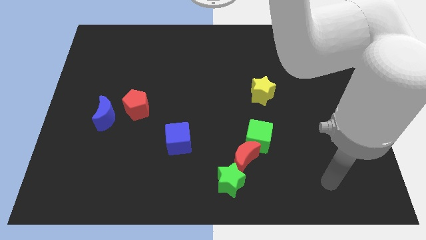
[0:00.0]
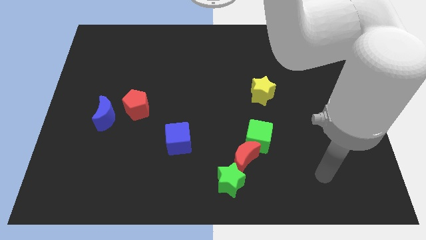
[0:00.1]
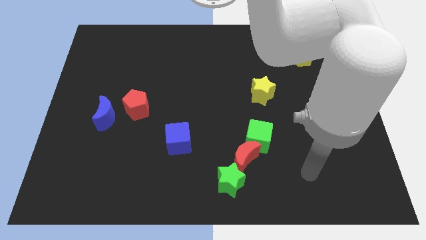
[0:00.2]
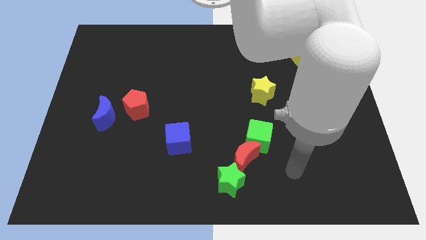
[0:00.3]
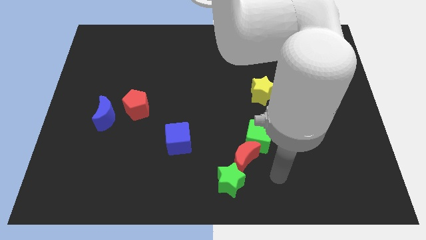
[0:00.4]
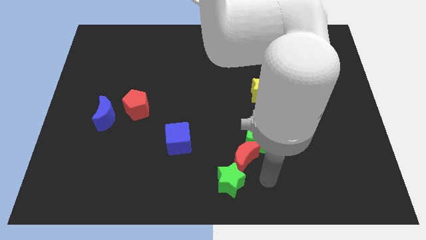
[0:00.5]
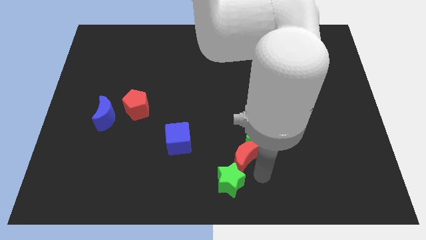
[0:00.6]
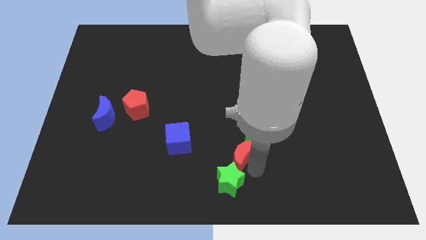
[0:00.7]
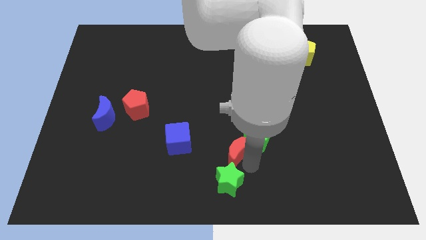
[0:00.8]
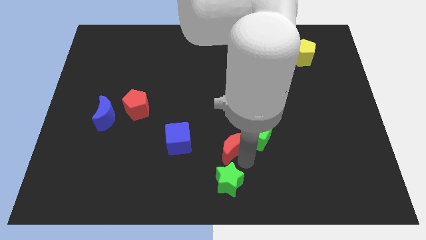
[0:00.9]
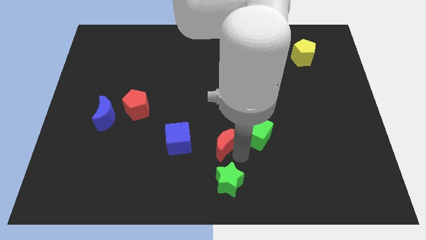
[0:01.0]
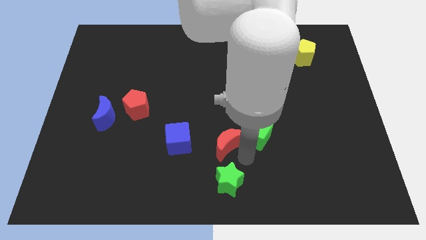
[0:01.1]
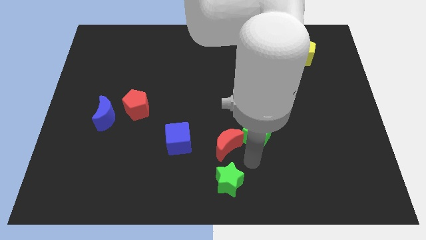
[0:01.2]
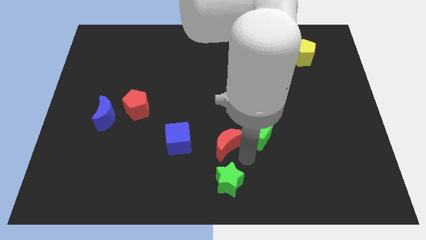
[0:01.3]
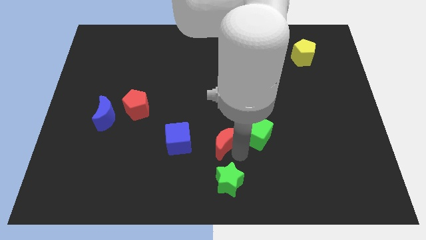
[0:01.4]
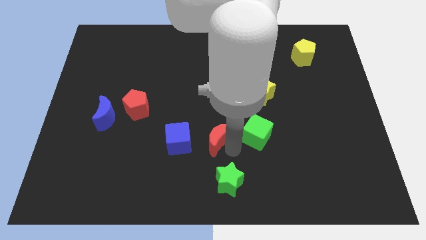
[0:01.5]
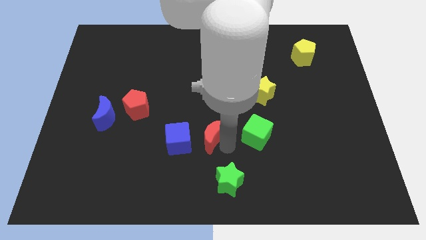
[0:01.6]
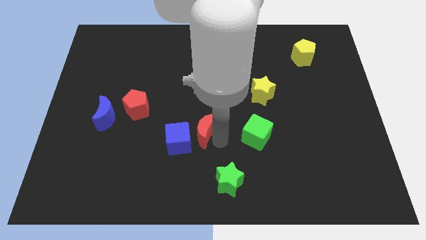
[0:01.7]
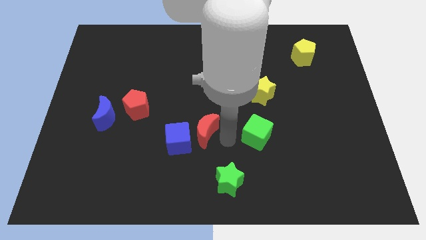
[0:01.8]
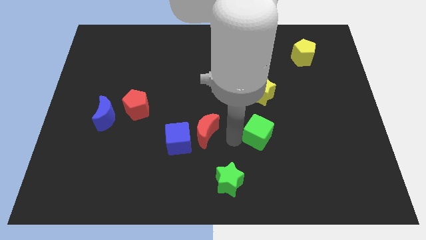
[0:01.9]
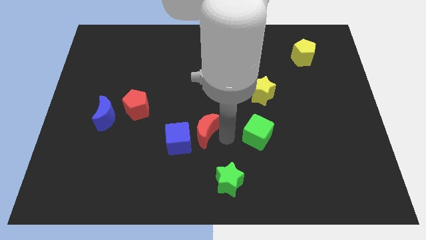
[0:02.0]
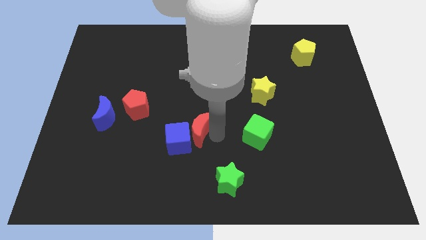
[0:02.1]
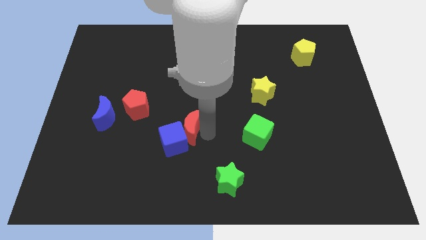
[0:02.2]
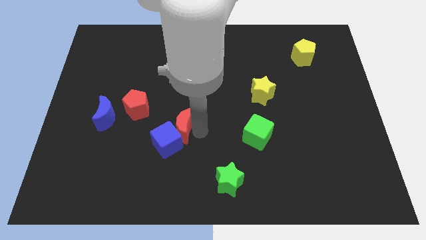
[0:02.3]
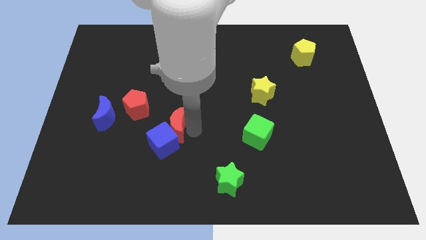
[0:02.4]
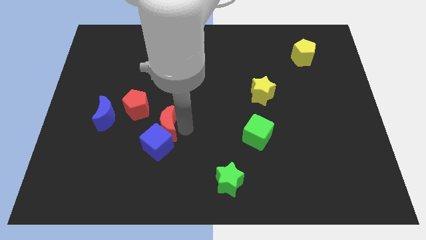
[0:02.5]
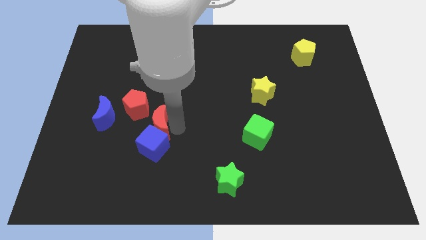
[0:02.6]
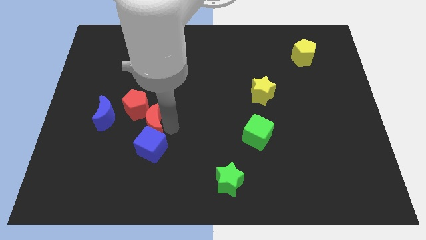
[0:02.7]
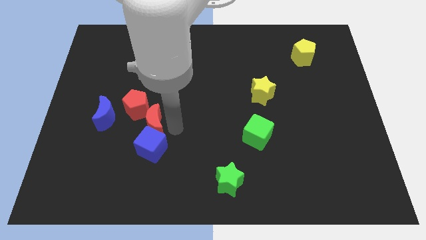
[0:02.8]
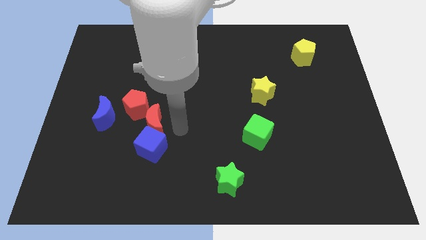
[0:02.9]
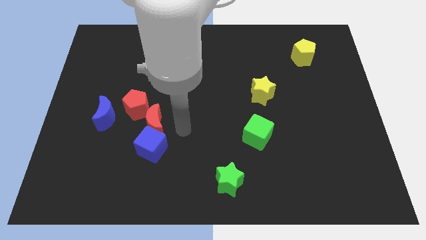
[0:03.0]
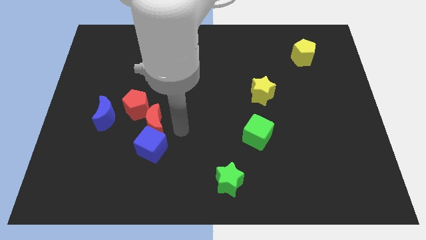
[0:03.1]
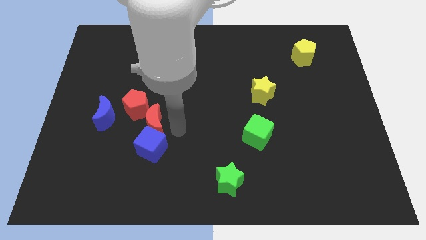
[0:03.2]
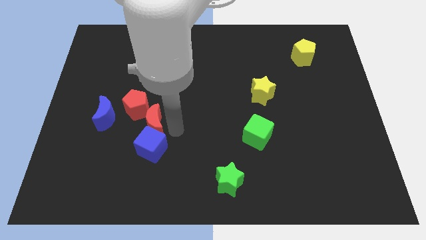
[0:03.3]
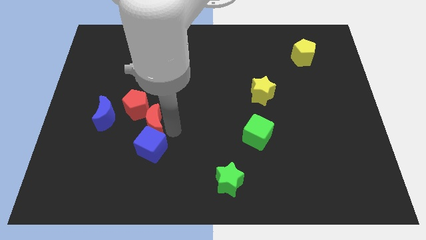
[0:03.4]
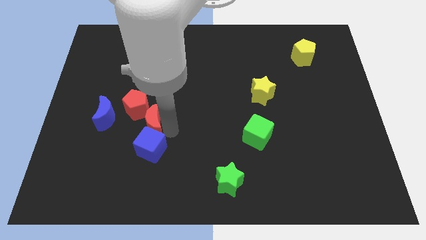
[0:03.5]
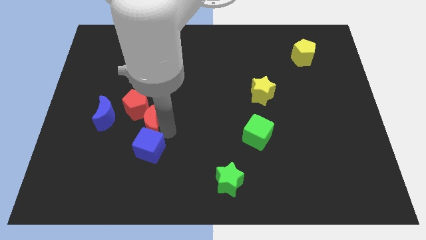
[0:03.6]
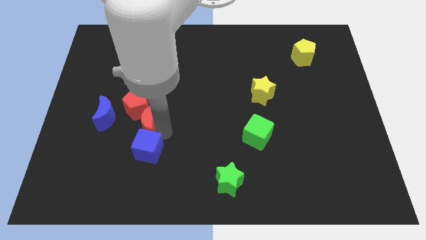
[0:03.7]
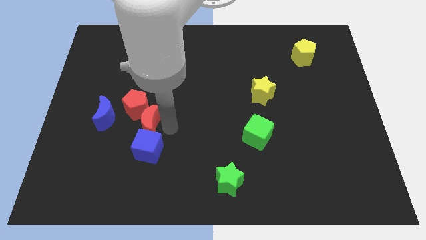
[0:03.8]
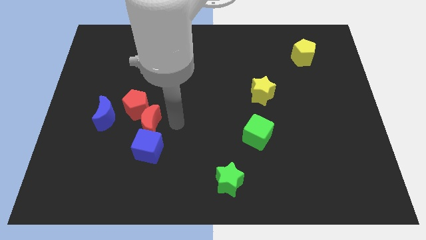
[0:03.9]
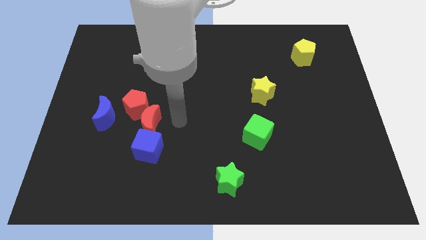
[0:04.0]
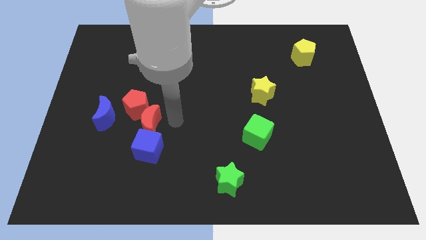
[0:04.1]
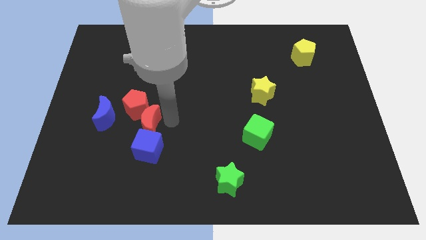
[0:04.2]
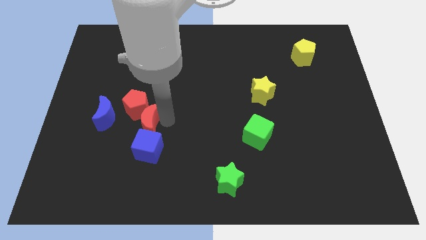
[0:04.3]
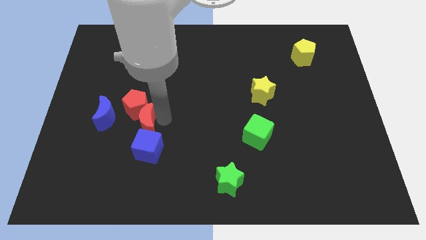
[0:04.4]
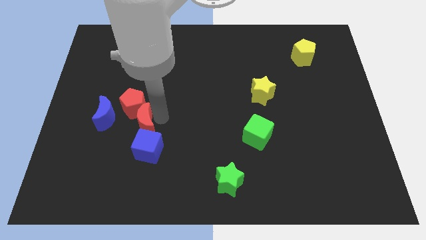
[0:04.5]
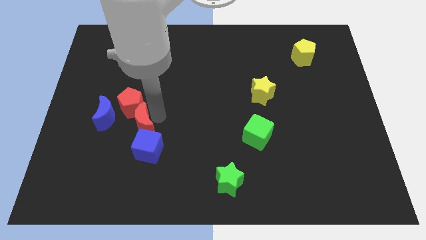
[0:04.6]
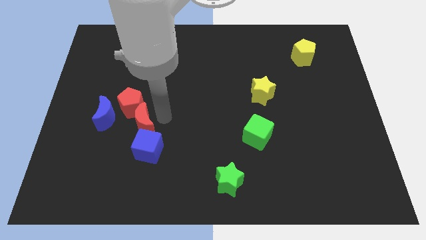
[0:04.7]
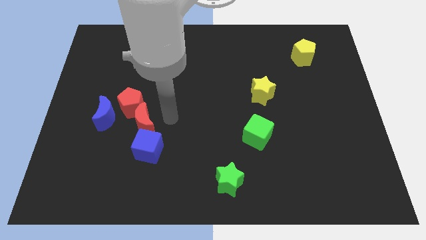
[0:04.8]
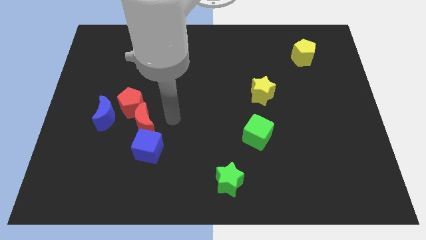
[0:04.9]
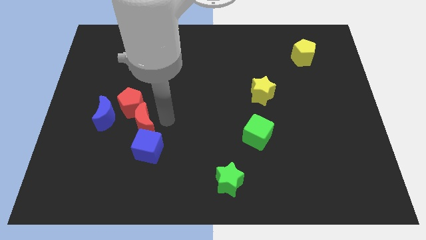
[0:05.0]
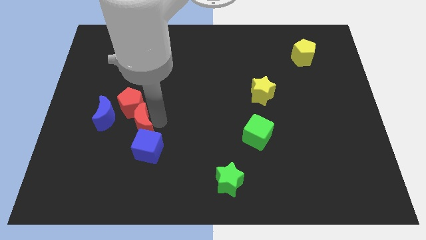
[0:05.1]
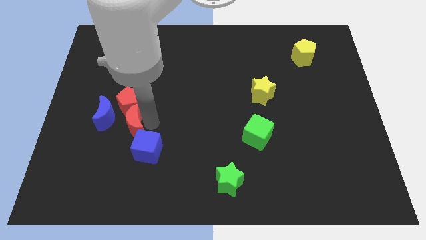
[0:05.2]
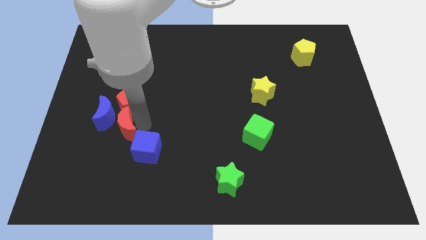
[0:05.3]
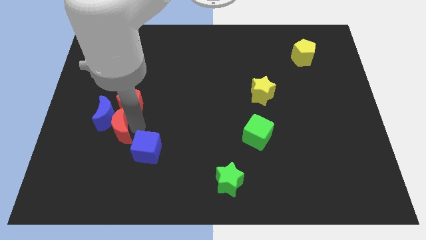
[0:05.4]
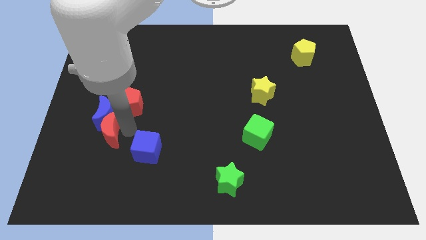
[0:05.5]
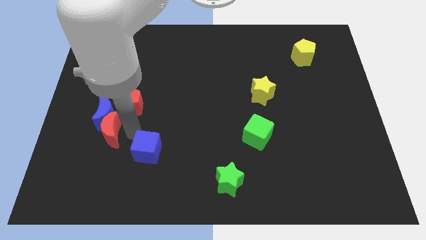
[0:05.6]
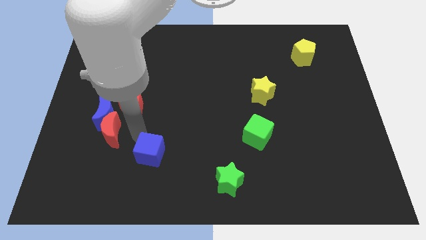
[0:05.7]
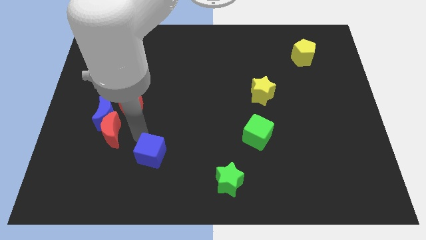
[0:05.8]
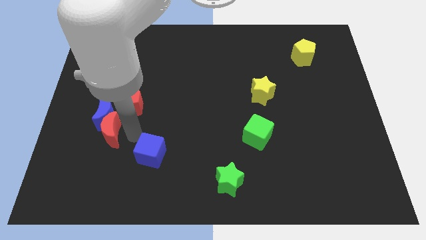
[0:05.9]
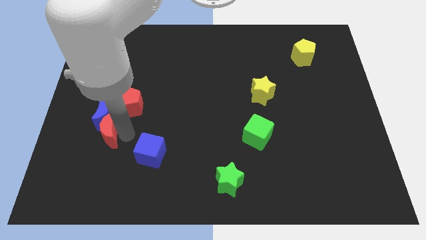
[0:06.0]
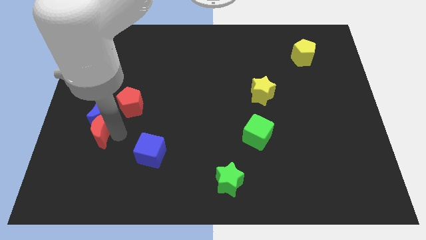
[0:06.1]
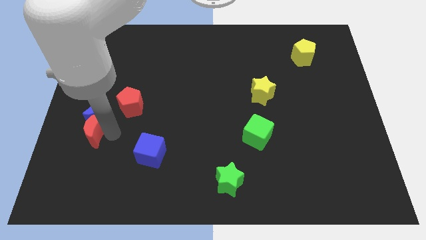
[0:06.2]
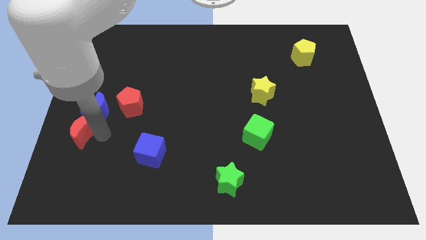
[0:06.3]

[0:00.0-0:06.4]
push the red moon to the left side
